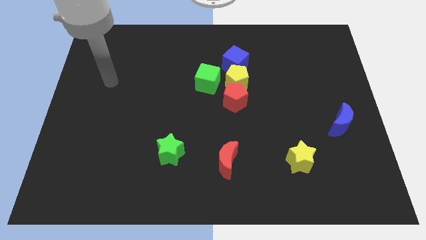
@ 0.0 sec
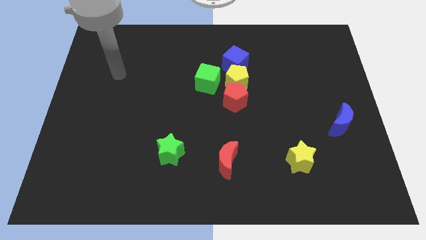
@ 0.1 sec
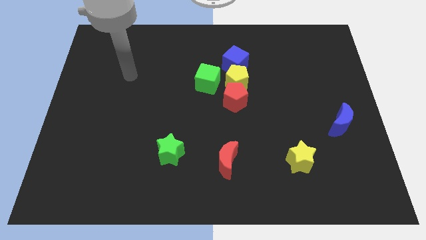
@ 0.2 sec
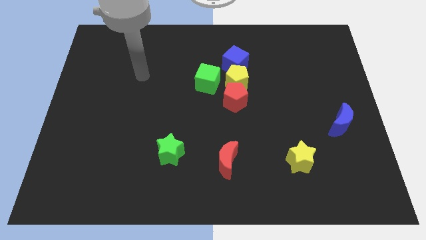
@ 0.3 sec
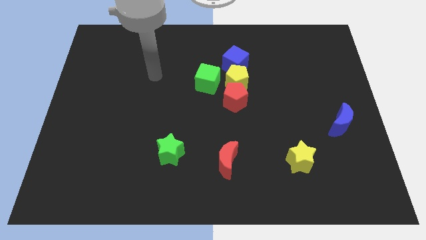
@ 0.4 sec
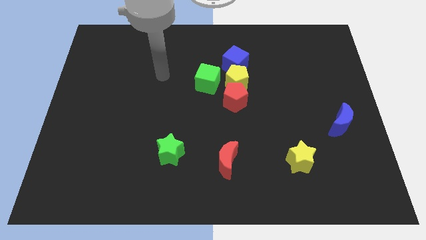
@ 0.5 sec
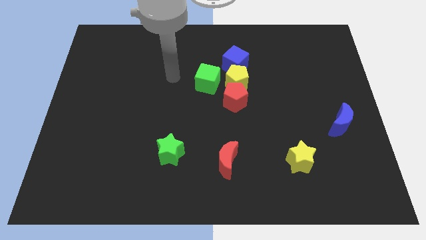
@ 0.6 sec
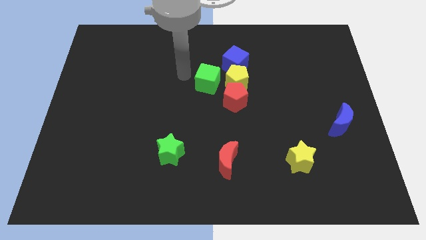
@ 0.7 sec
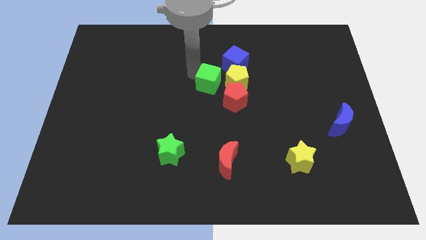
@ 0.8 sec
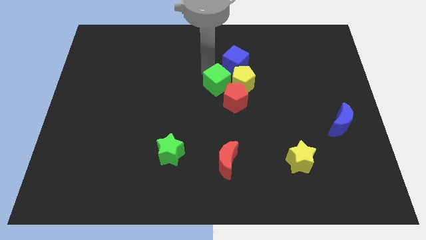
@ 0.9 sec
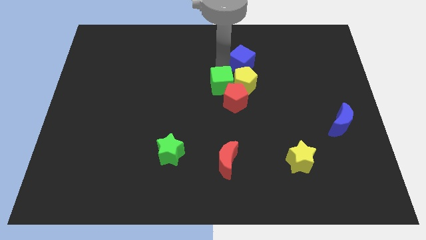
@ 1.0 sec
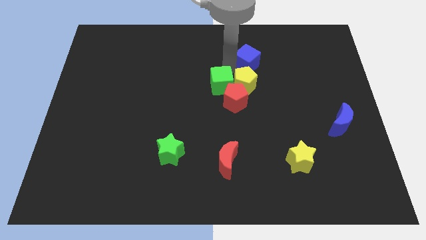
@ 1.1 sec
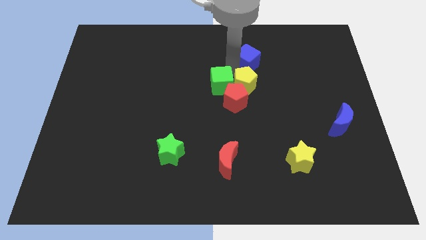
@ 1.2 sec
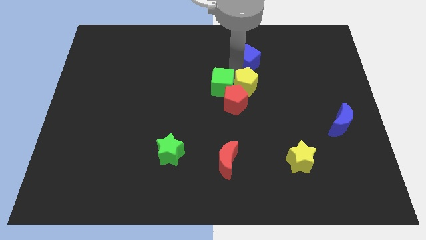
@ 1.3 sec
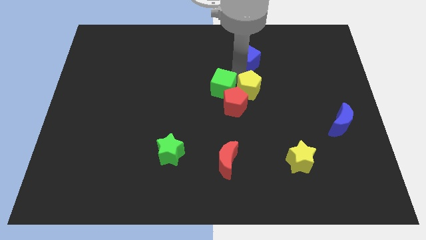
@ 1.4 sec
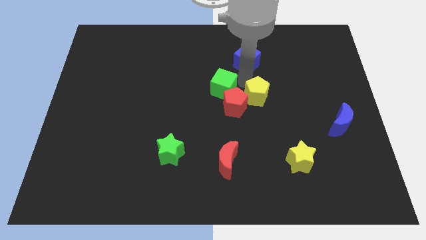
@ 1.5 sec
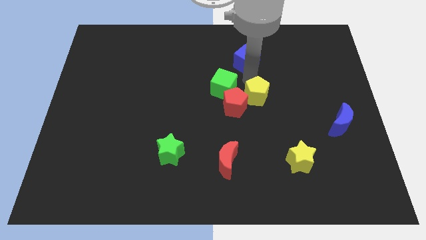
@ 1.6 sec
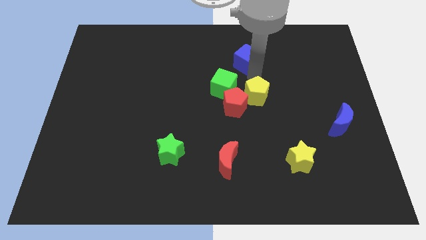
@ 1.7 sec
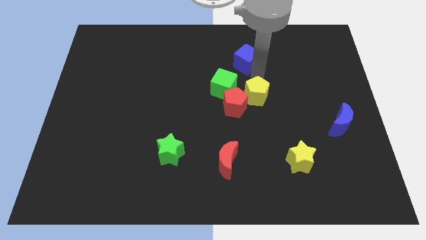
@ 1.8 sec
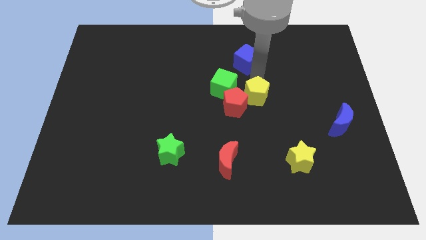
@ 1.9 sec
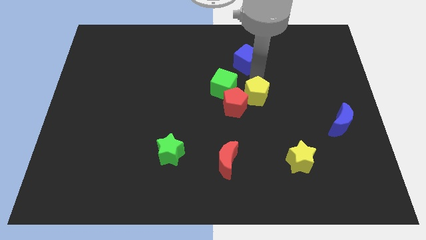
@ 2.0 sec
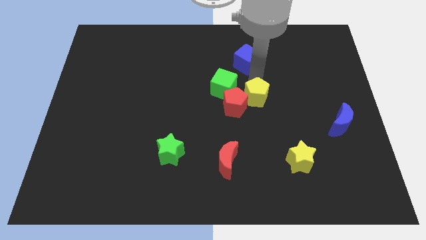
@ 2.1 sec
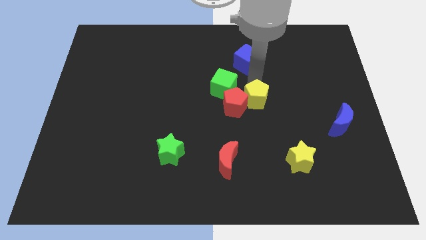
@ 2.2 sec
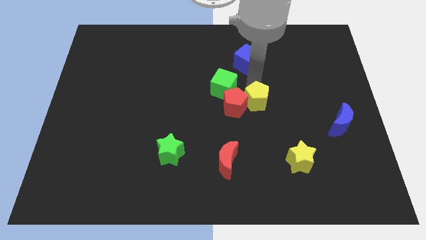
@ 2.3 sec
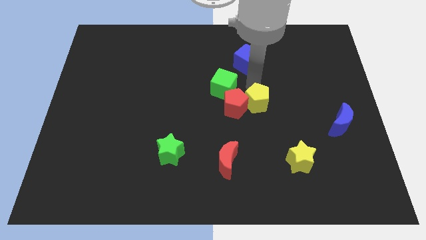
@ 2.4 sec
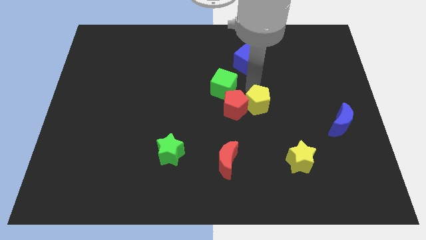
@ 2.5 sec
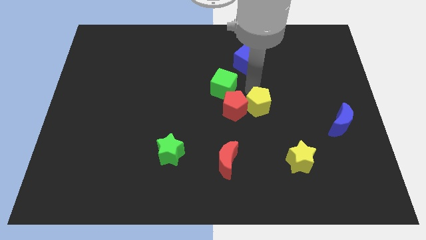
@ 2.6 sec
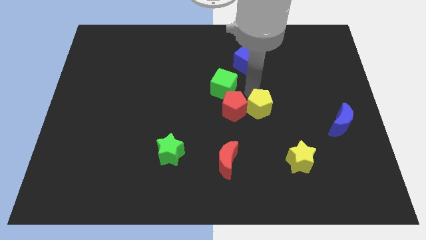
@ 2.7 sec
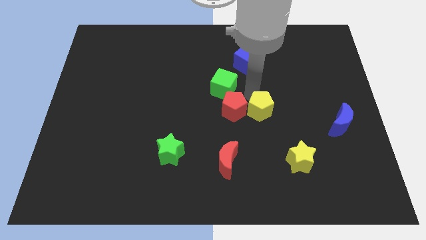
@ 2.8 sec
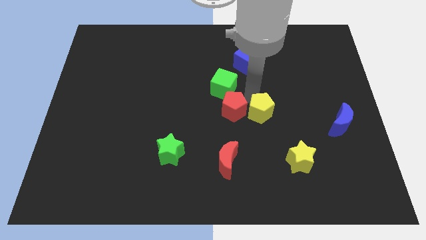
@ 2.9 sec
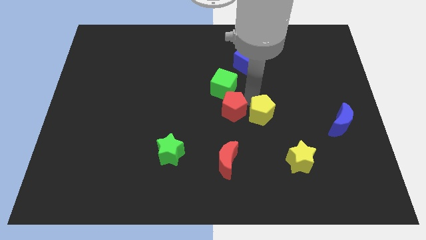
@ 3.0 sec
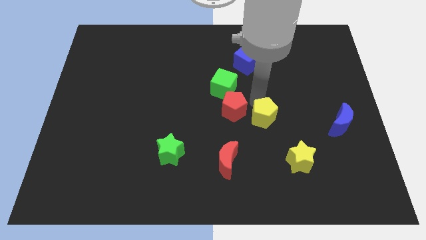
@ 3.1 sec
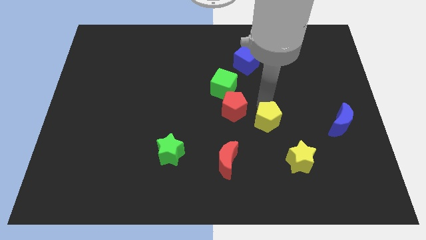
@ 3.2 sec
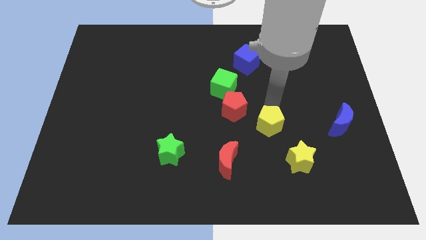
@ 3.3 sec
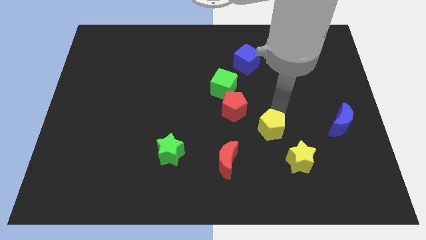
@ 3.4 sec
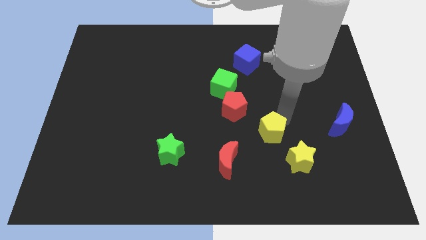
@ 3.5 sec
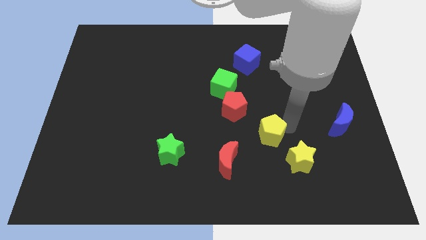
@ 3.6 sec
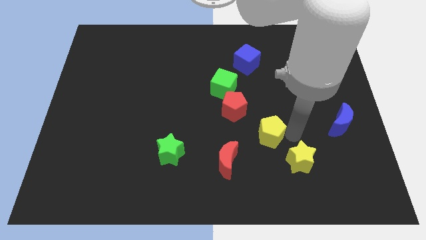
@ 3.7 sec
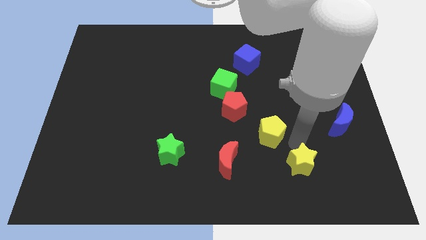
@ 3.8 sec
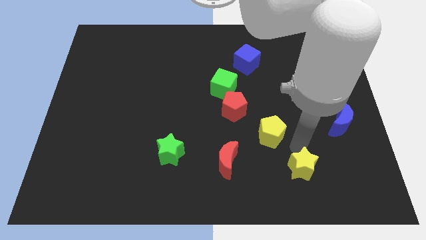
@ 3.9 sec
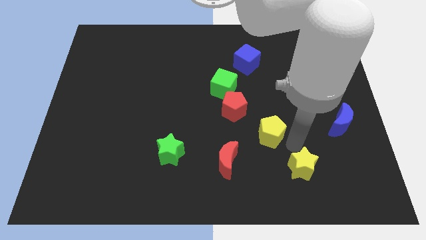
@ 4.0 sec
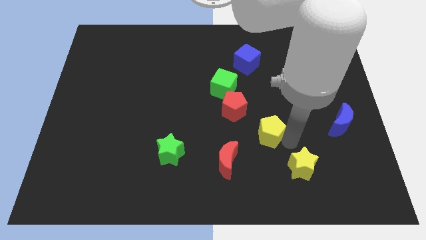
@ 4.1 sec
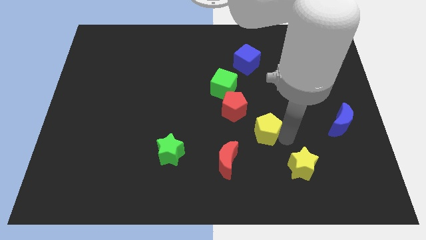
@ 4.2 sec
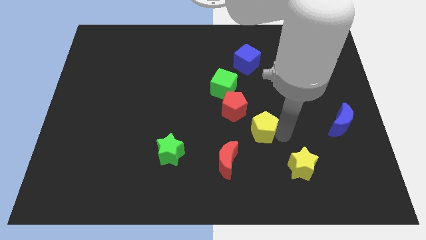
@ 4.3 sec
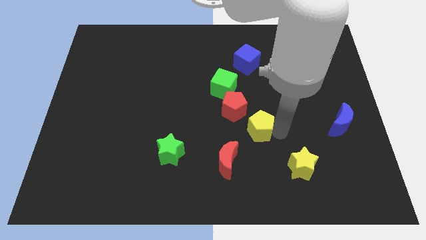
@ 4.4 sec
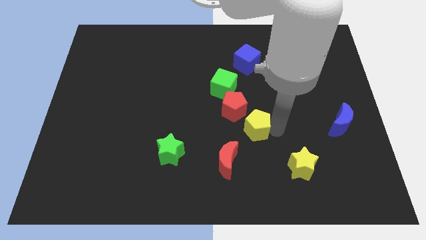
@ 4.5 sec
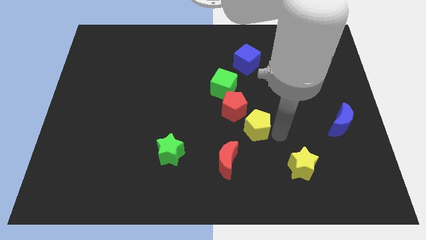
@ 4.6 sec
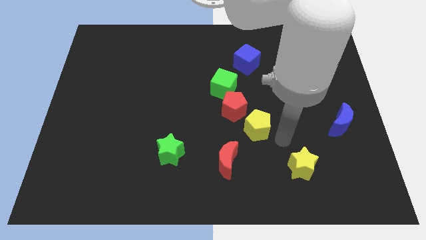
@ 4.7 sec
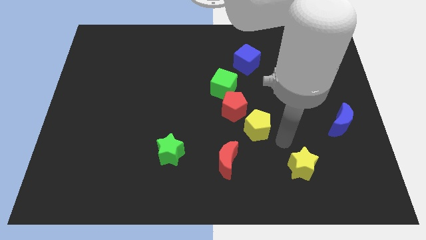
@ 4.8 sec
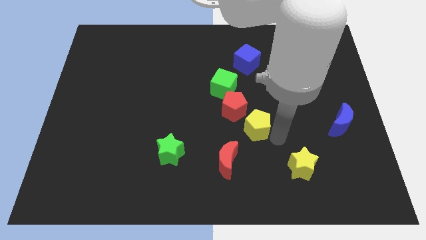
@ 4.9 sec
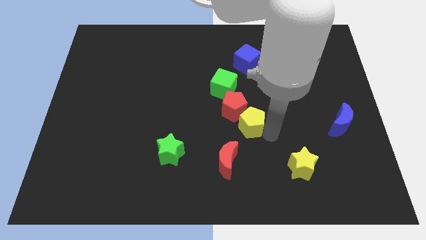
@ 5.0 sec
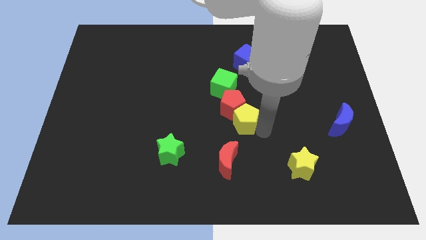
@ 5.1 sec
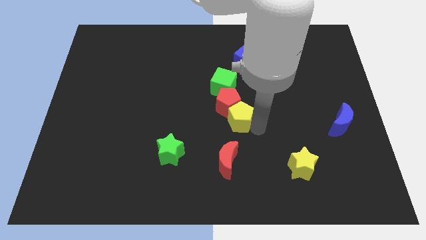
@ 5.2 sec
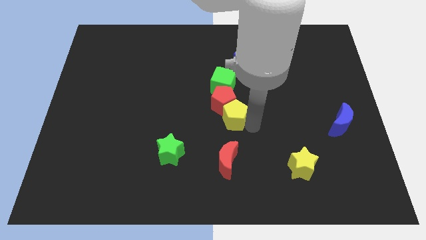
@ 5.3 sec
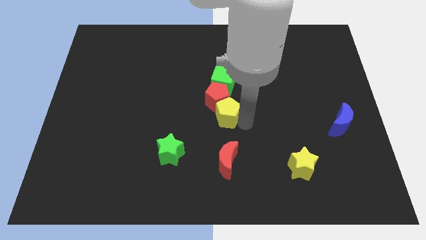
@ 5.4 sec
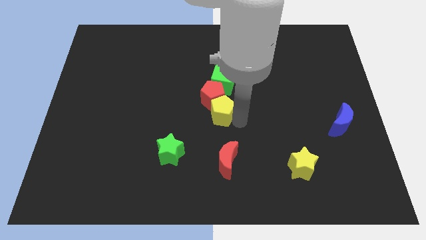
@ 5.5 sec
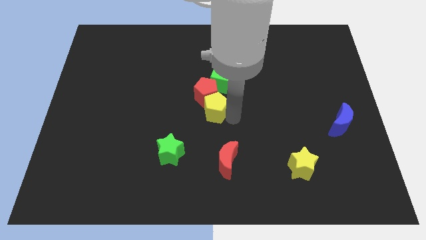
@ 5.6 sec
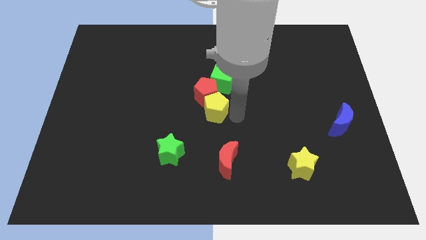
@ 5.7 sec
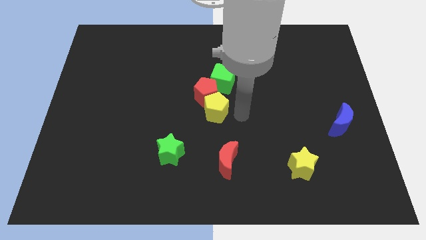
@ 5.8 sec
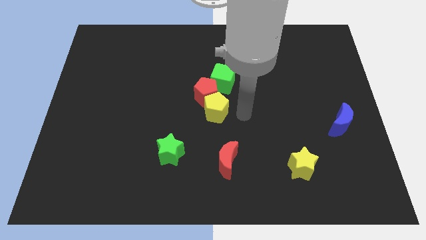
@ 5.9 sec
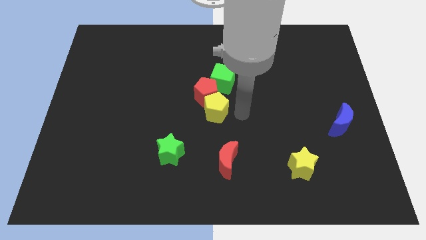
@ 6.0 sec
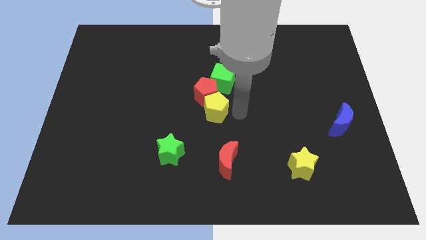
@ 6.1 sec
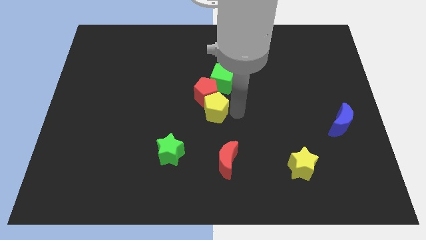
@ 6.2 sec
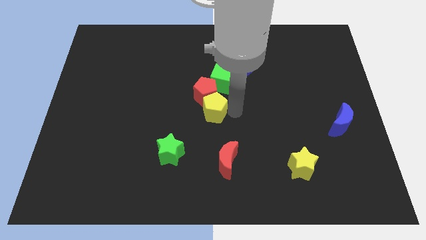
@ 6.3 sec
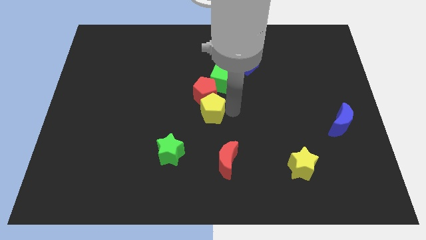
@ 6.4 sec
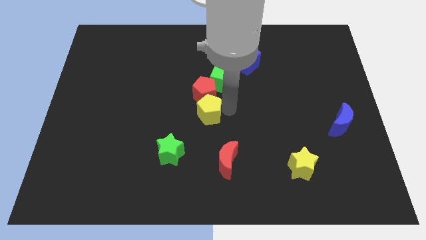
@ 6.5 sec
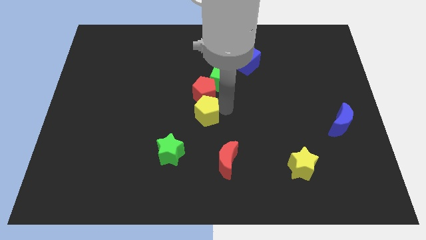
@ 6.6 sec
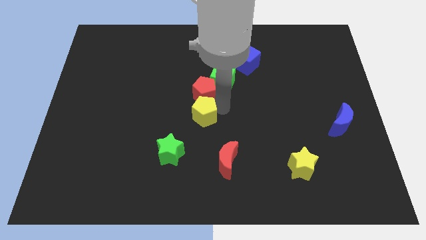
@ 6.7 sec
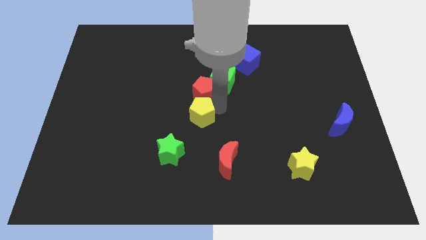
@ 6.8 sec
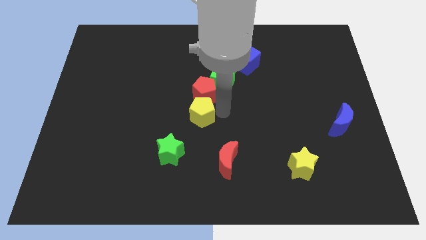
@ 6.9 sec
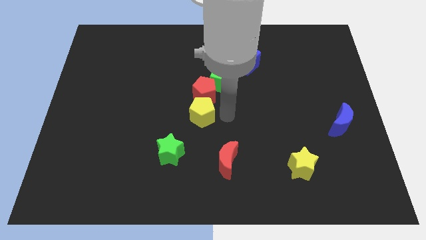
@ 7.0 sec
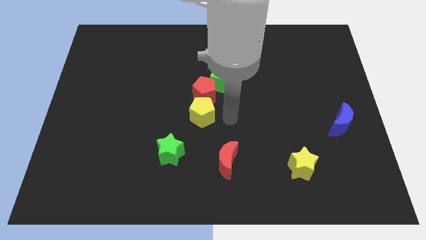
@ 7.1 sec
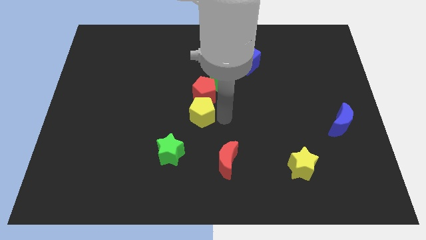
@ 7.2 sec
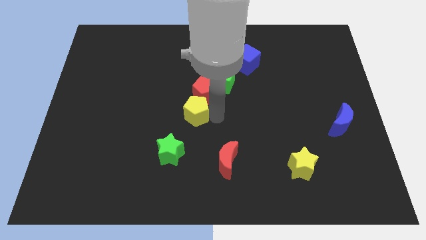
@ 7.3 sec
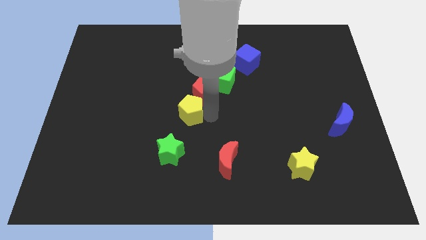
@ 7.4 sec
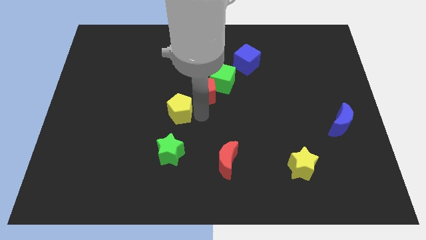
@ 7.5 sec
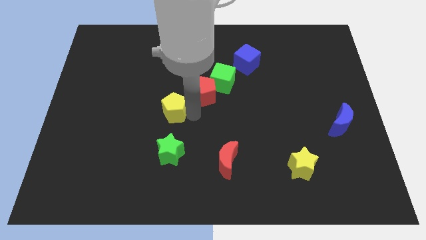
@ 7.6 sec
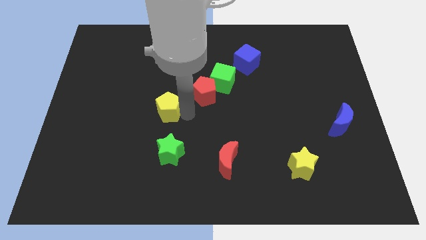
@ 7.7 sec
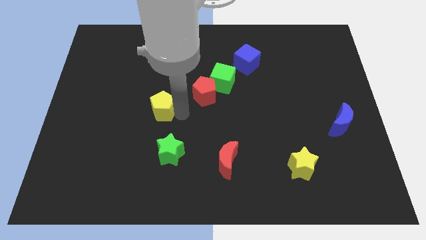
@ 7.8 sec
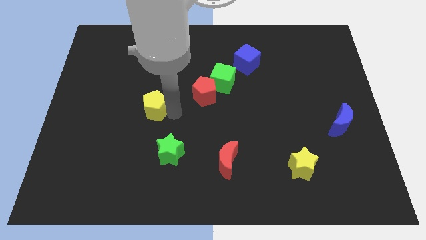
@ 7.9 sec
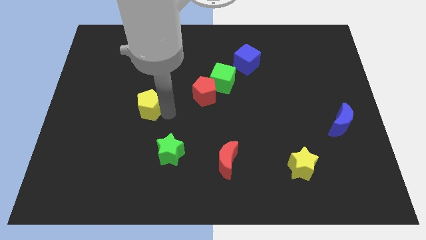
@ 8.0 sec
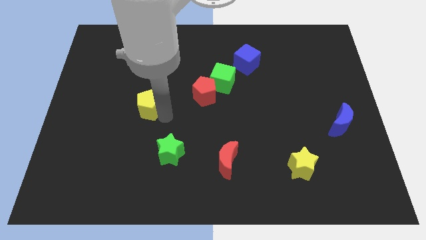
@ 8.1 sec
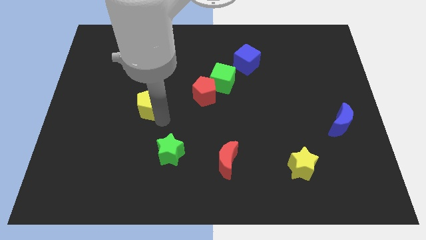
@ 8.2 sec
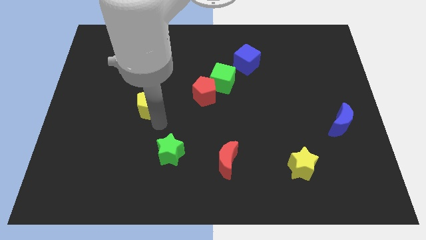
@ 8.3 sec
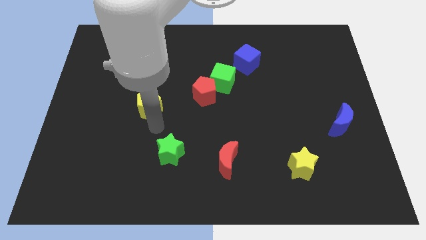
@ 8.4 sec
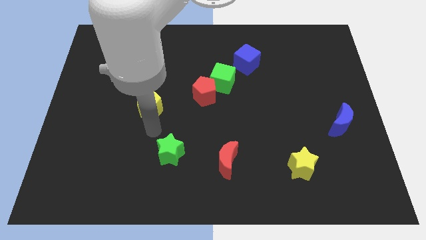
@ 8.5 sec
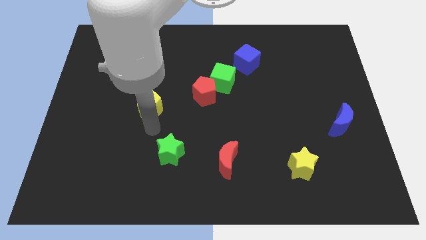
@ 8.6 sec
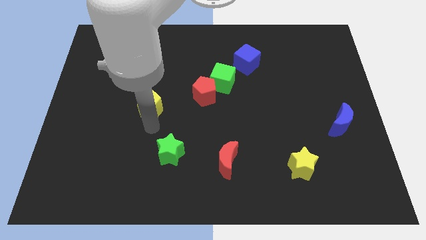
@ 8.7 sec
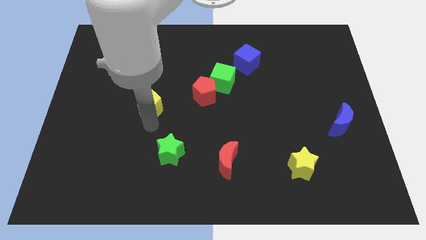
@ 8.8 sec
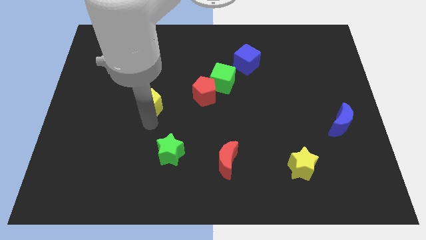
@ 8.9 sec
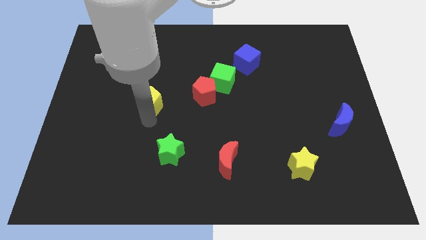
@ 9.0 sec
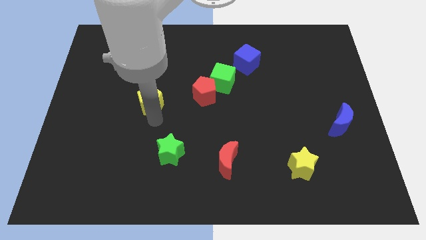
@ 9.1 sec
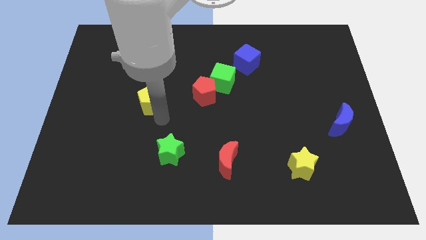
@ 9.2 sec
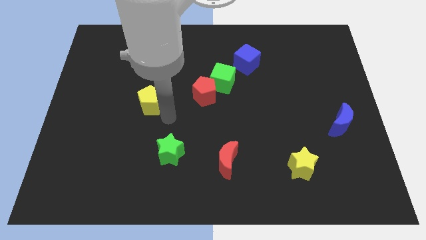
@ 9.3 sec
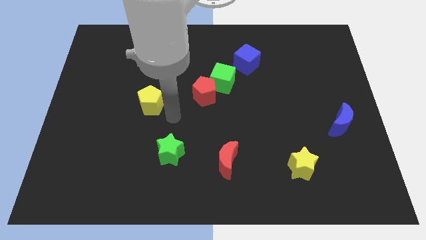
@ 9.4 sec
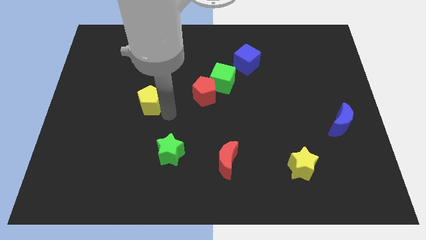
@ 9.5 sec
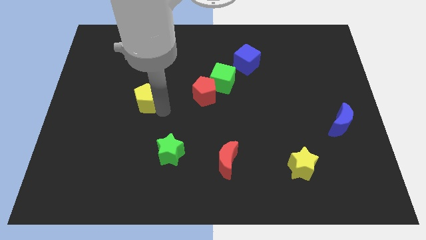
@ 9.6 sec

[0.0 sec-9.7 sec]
push the yellow pentagon to the left
